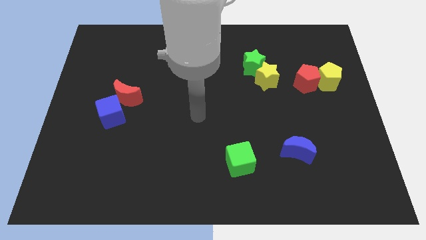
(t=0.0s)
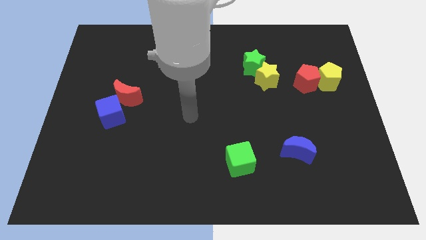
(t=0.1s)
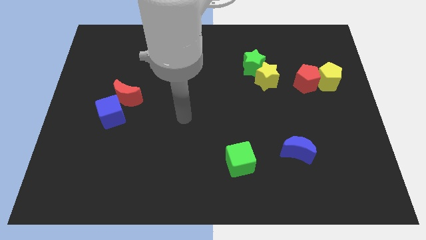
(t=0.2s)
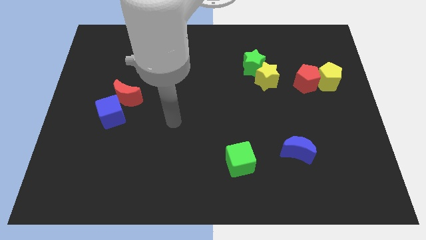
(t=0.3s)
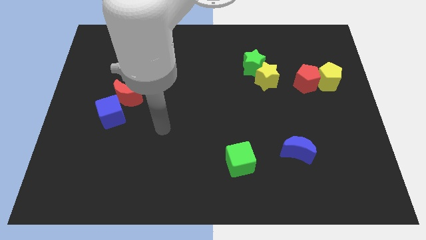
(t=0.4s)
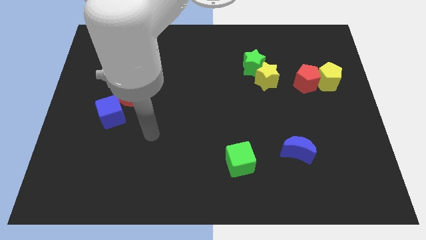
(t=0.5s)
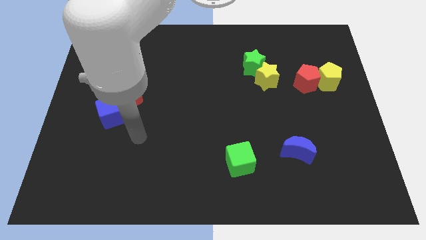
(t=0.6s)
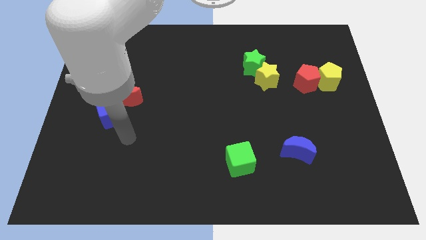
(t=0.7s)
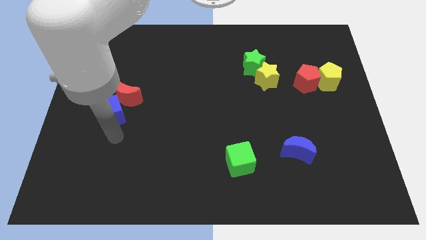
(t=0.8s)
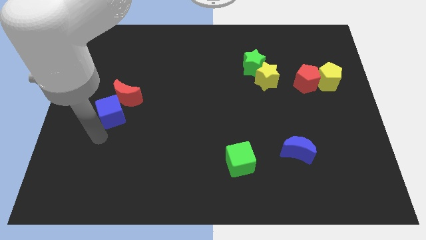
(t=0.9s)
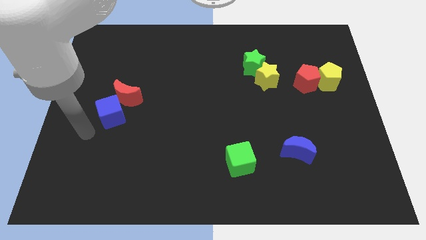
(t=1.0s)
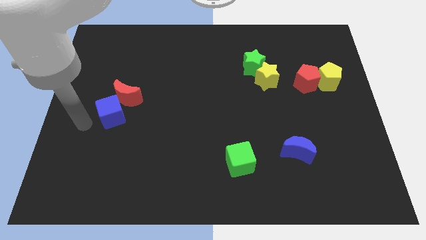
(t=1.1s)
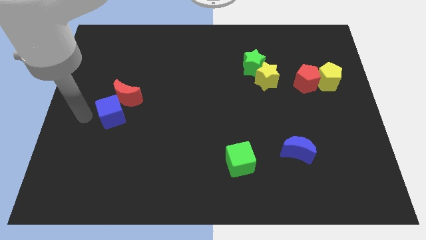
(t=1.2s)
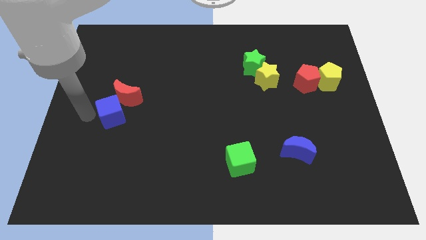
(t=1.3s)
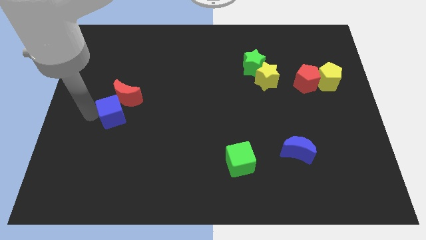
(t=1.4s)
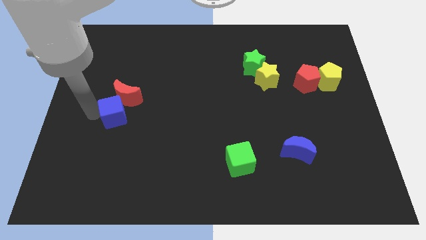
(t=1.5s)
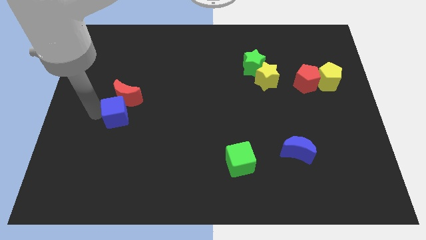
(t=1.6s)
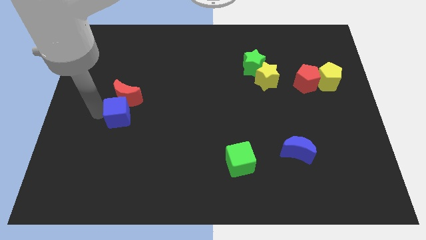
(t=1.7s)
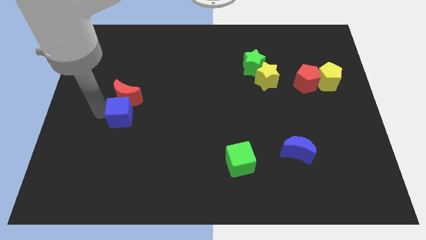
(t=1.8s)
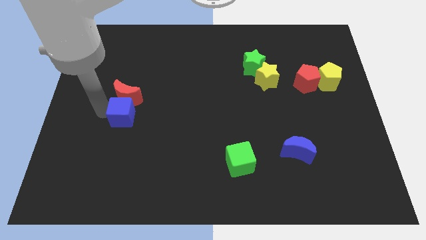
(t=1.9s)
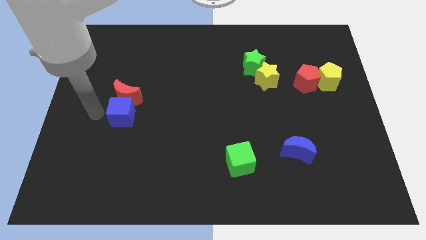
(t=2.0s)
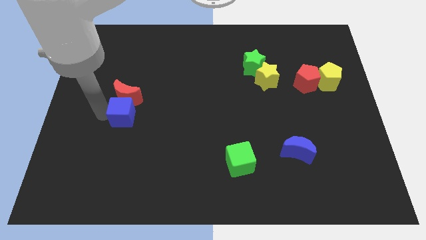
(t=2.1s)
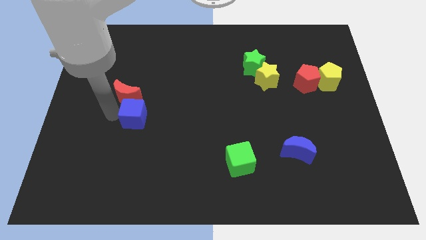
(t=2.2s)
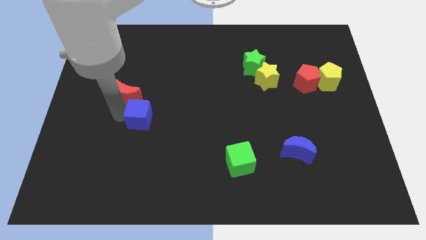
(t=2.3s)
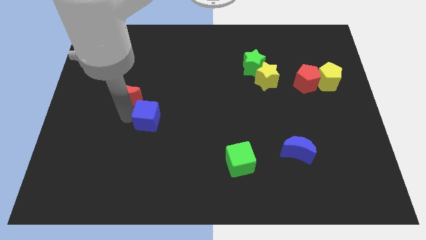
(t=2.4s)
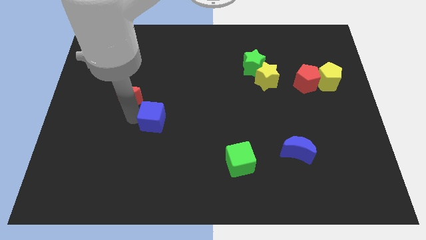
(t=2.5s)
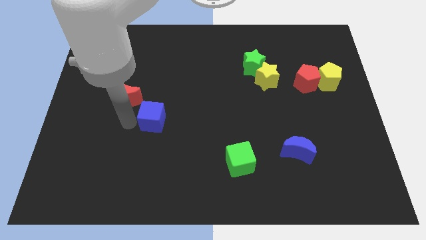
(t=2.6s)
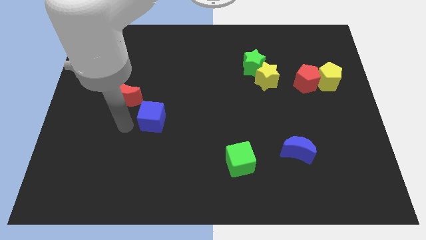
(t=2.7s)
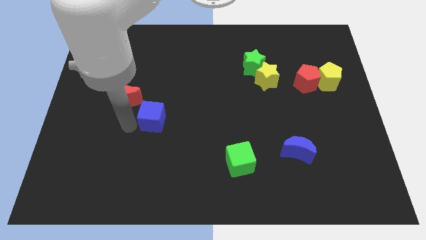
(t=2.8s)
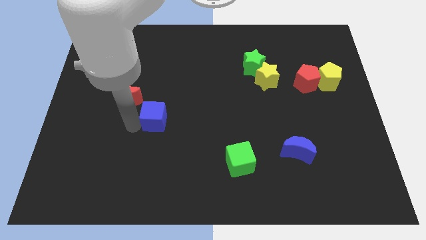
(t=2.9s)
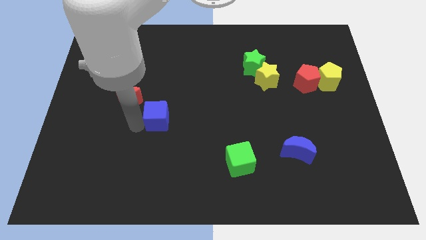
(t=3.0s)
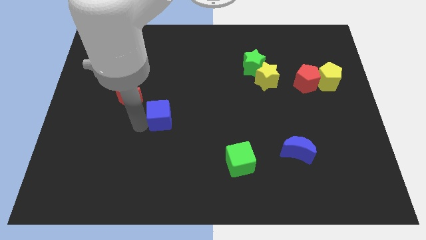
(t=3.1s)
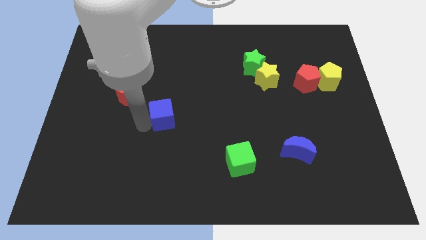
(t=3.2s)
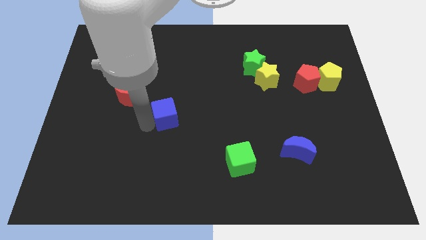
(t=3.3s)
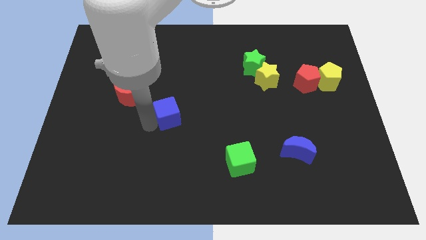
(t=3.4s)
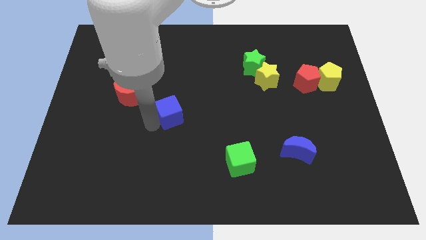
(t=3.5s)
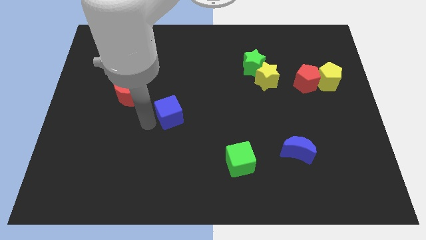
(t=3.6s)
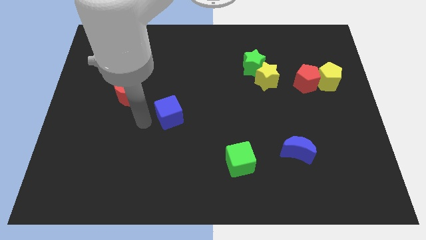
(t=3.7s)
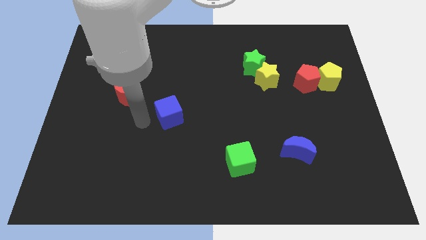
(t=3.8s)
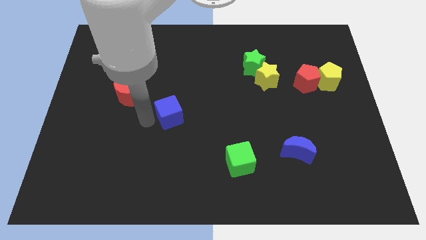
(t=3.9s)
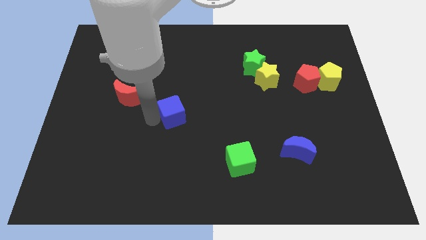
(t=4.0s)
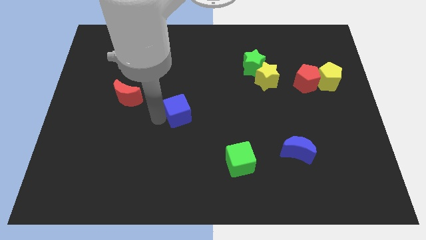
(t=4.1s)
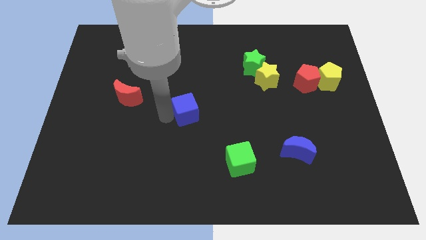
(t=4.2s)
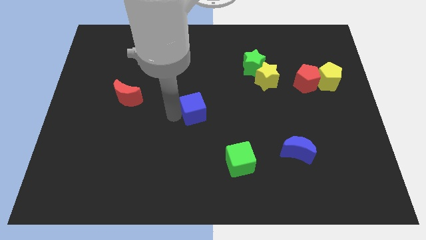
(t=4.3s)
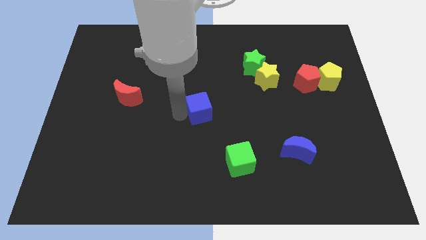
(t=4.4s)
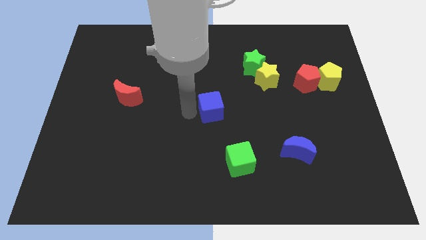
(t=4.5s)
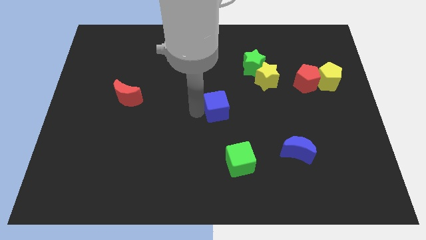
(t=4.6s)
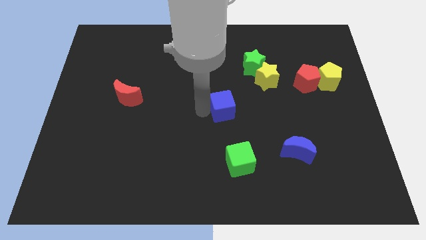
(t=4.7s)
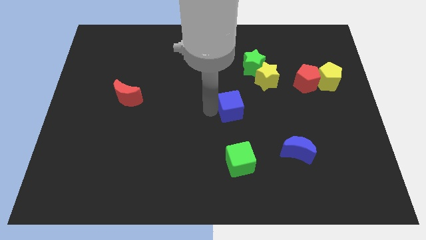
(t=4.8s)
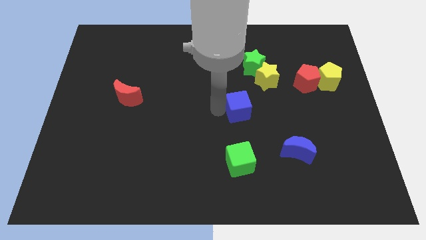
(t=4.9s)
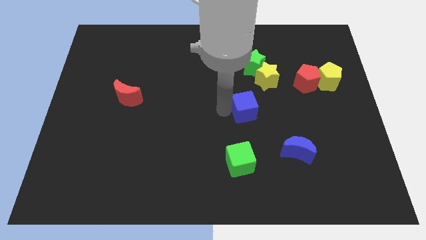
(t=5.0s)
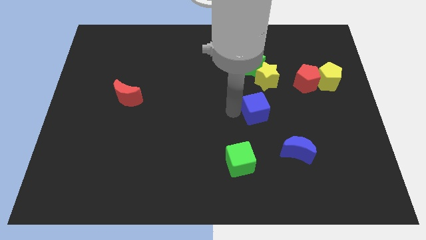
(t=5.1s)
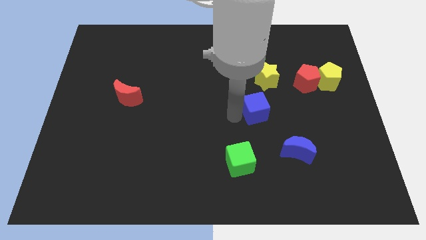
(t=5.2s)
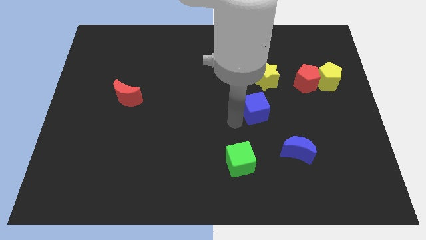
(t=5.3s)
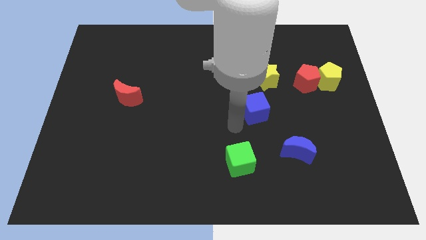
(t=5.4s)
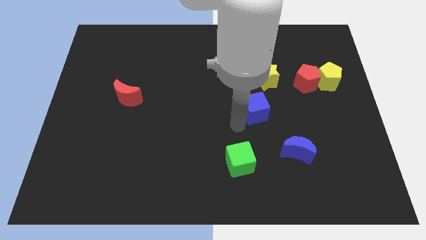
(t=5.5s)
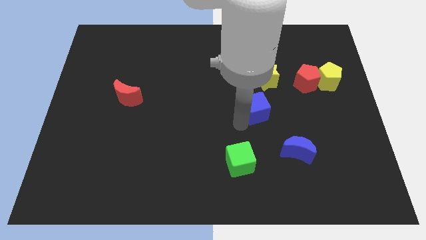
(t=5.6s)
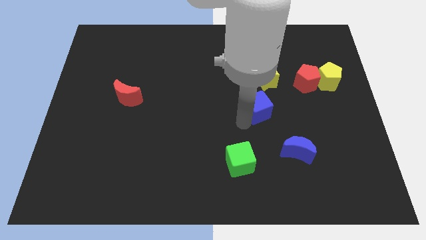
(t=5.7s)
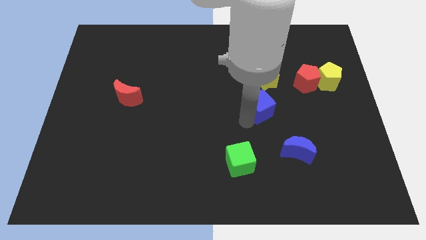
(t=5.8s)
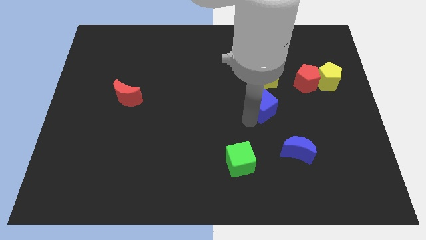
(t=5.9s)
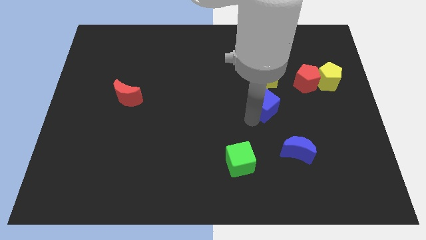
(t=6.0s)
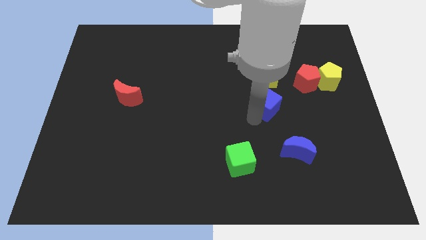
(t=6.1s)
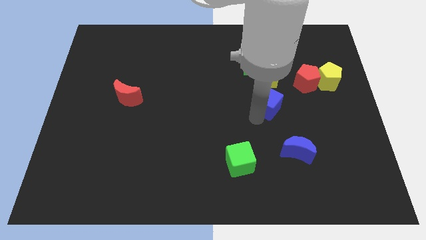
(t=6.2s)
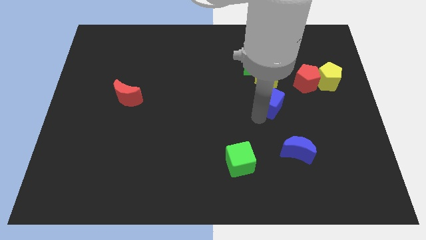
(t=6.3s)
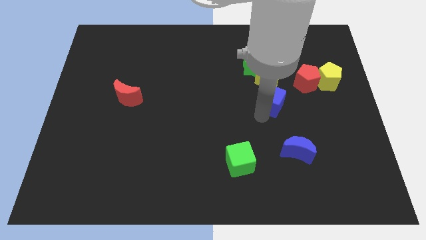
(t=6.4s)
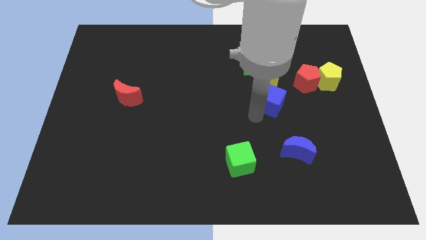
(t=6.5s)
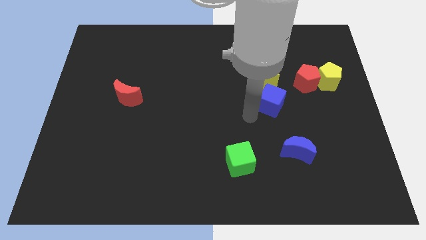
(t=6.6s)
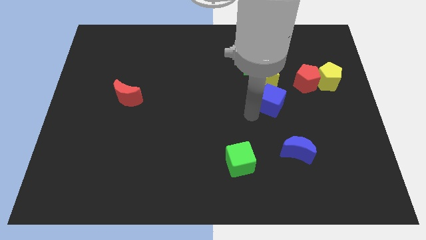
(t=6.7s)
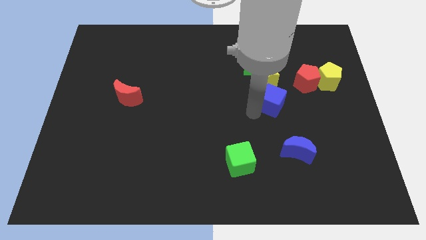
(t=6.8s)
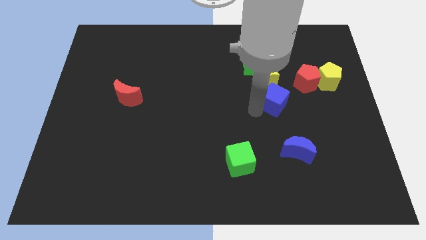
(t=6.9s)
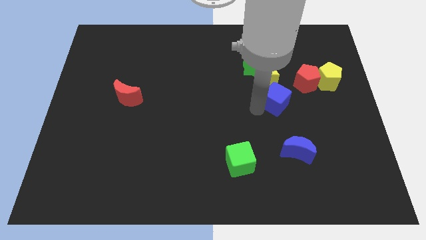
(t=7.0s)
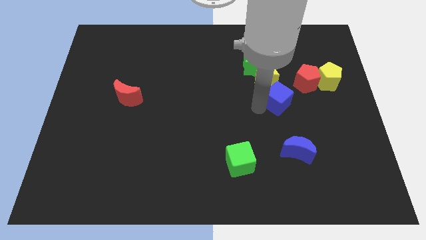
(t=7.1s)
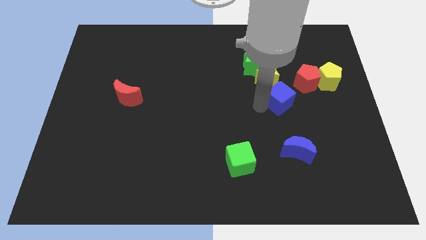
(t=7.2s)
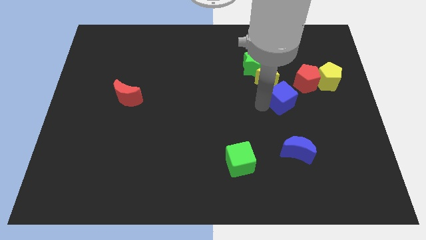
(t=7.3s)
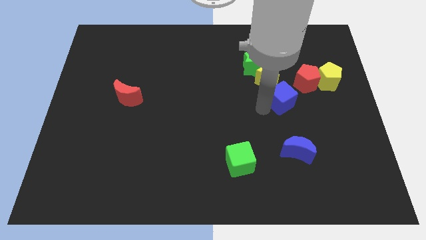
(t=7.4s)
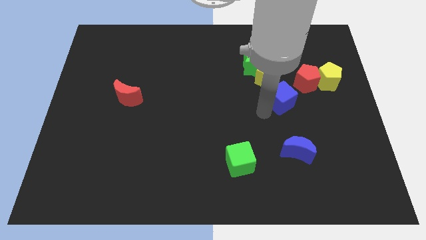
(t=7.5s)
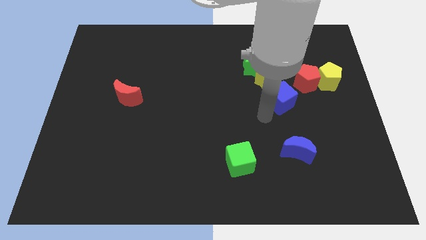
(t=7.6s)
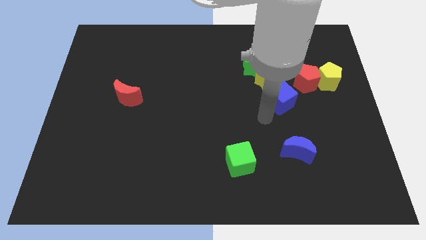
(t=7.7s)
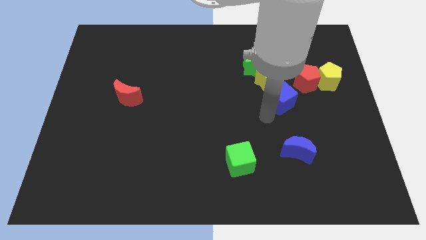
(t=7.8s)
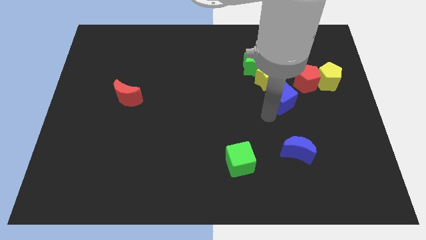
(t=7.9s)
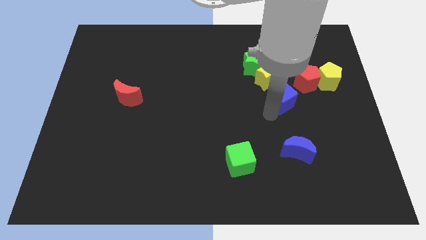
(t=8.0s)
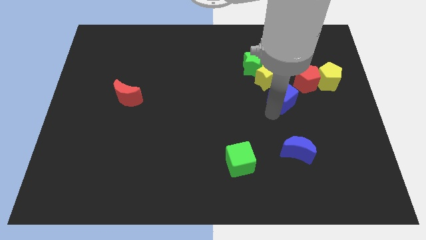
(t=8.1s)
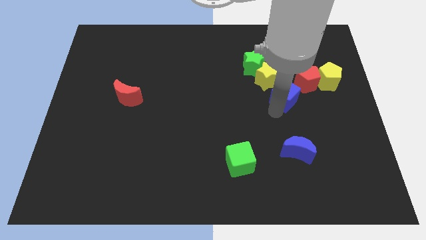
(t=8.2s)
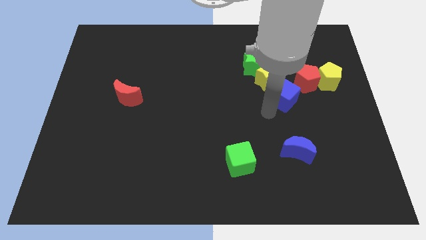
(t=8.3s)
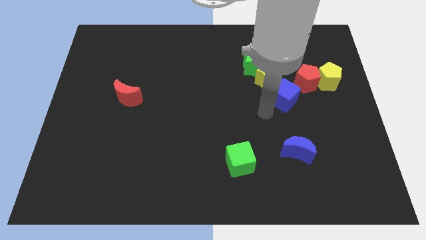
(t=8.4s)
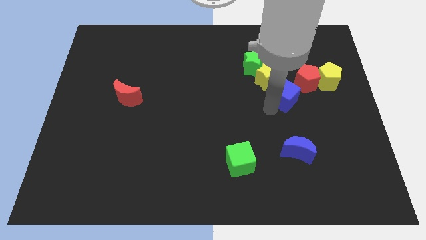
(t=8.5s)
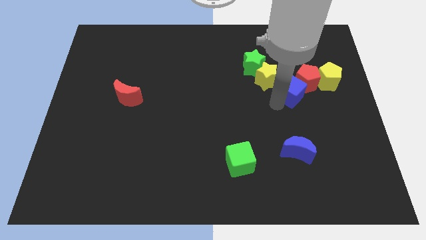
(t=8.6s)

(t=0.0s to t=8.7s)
move the blue cube towards the red pentagon
